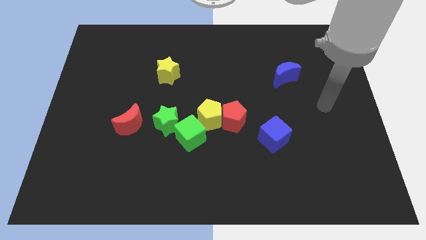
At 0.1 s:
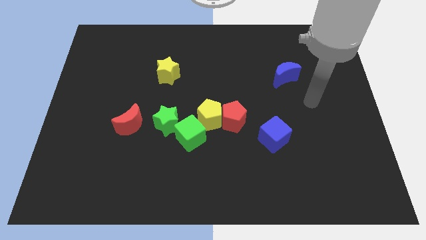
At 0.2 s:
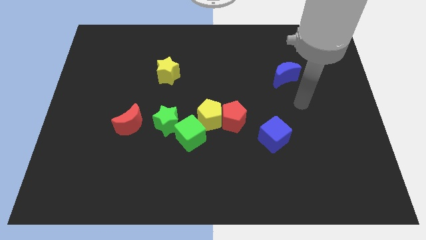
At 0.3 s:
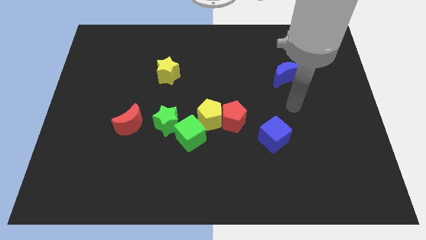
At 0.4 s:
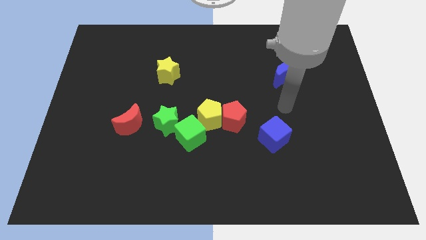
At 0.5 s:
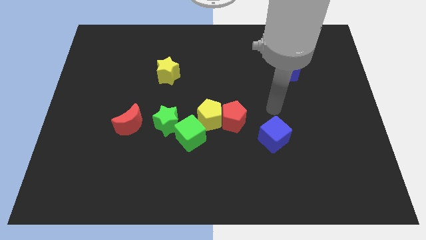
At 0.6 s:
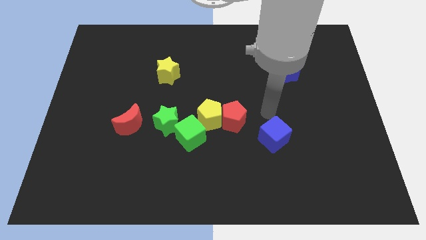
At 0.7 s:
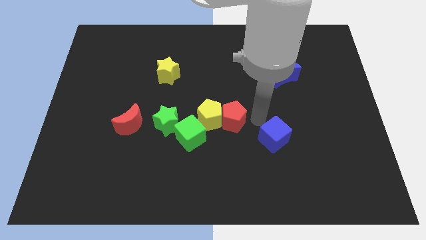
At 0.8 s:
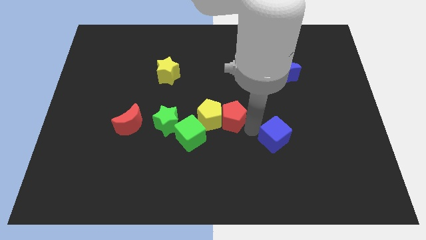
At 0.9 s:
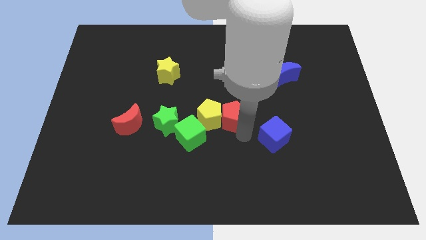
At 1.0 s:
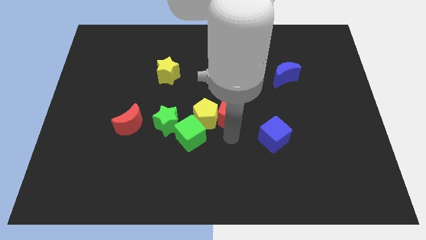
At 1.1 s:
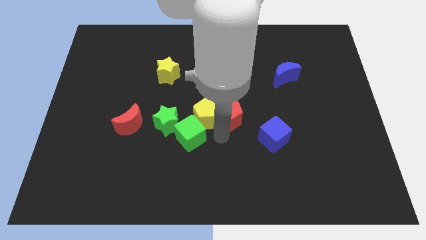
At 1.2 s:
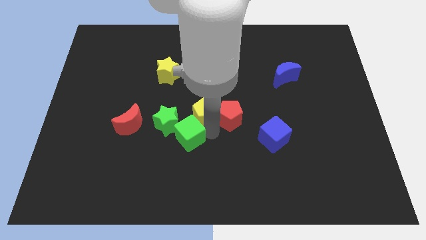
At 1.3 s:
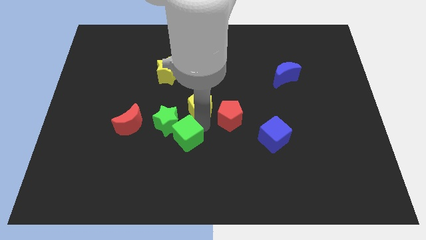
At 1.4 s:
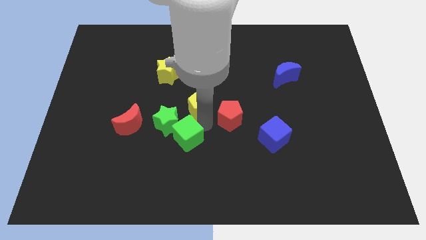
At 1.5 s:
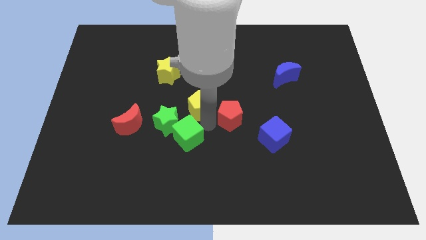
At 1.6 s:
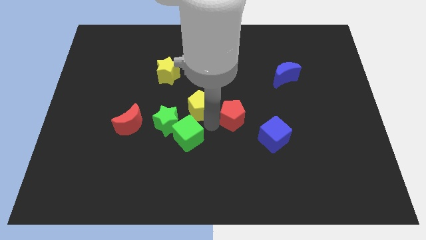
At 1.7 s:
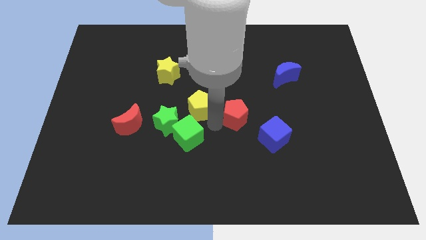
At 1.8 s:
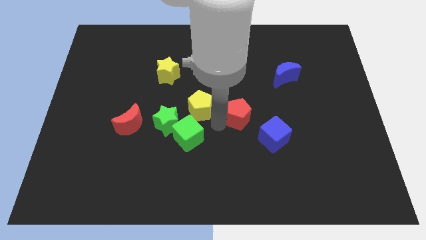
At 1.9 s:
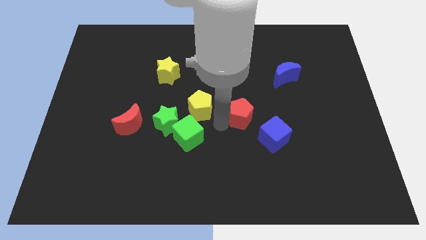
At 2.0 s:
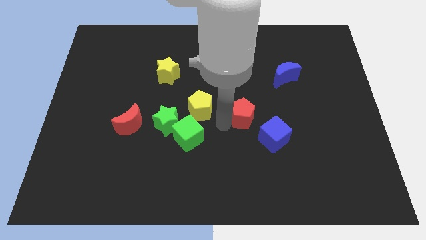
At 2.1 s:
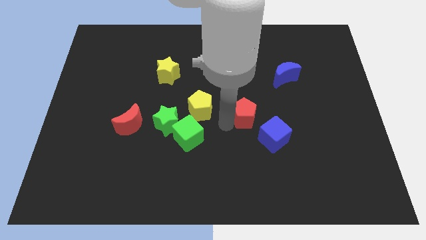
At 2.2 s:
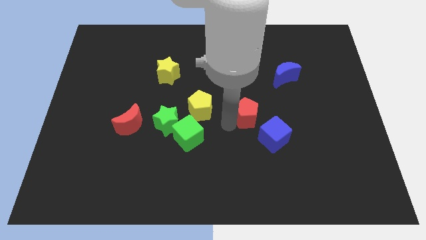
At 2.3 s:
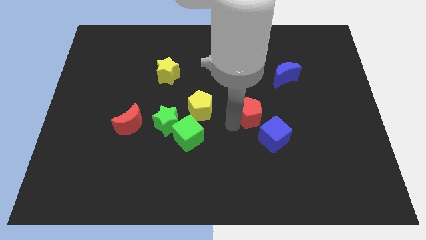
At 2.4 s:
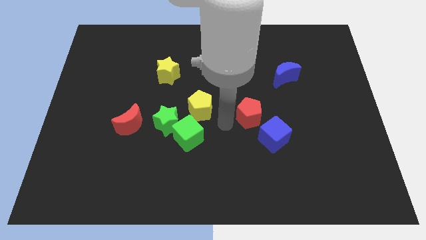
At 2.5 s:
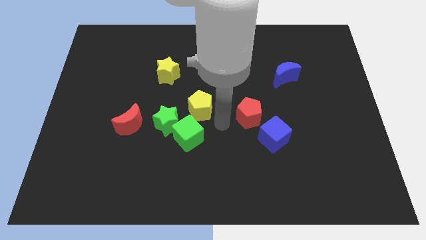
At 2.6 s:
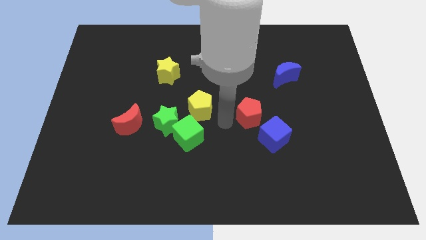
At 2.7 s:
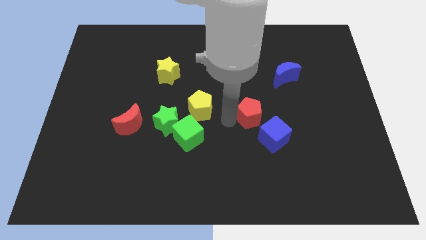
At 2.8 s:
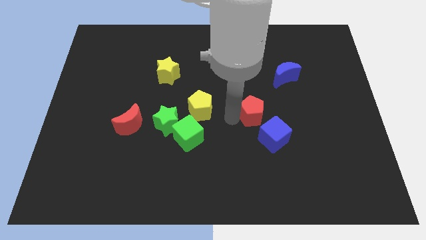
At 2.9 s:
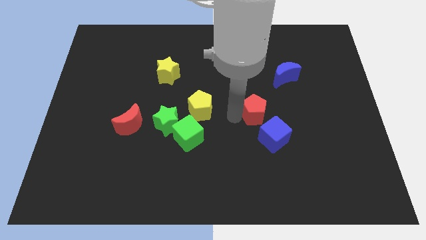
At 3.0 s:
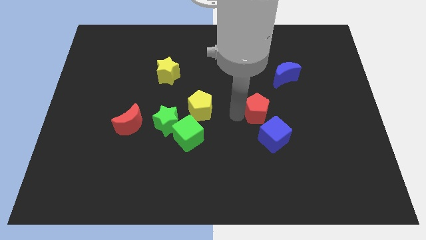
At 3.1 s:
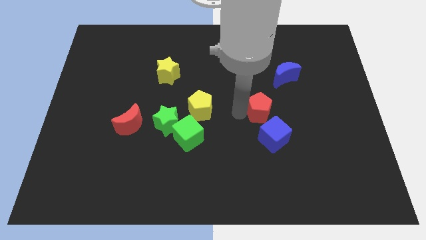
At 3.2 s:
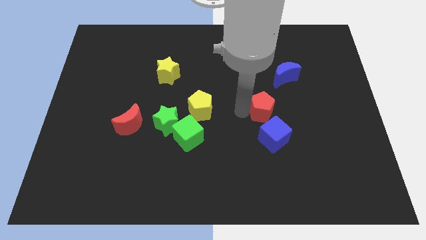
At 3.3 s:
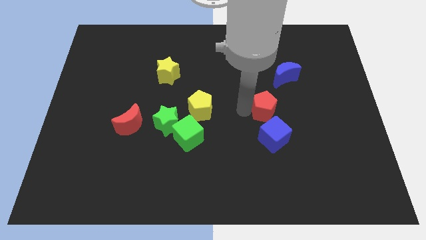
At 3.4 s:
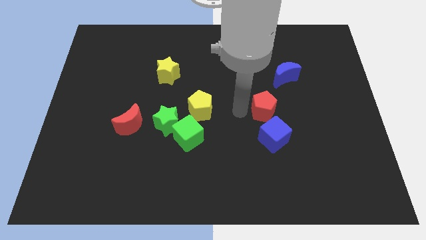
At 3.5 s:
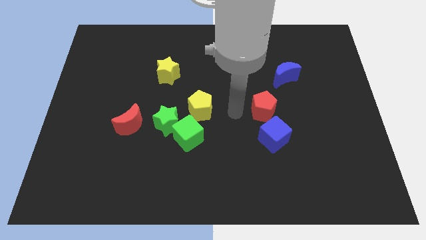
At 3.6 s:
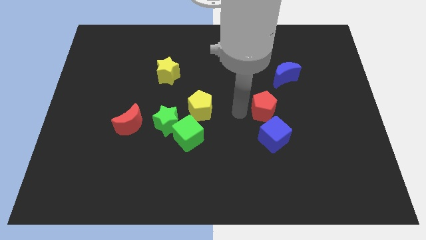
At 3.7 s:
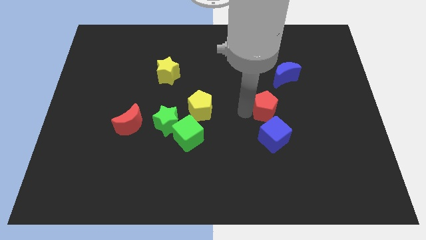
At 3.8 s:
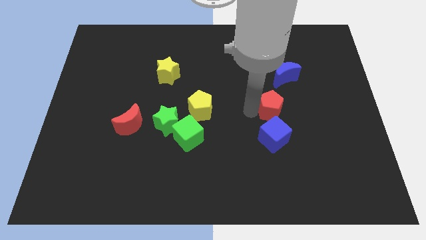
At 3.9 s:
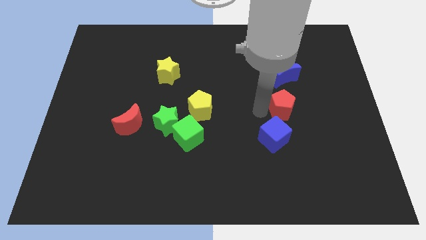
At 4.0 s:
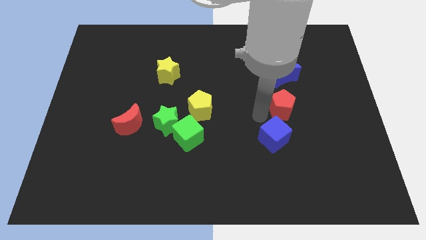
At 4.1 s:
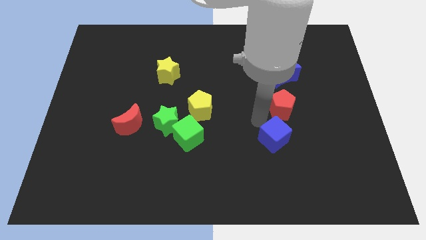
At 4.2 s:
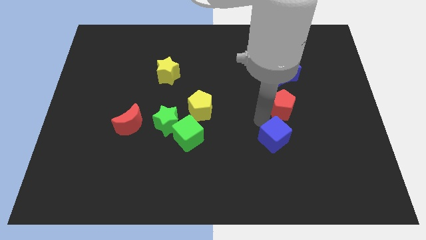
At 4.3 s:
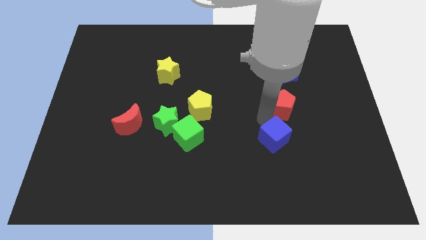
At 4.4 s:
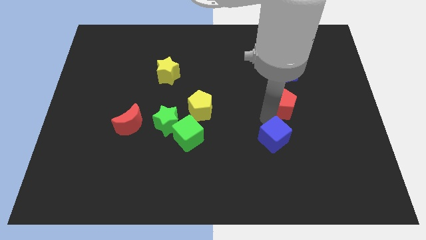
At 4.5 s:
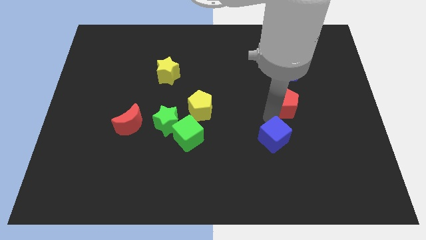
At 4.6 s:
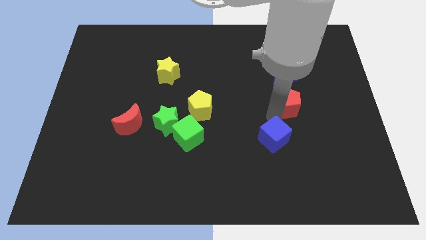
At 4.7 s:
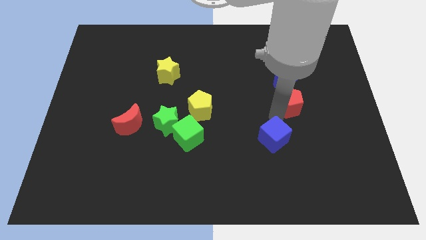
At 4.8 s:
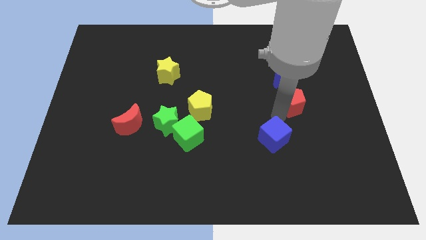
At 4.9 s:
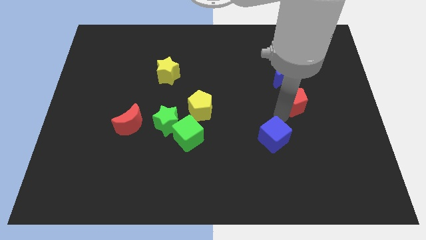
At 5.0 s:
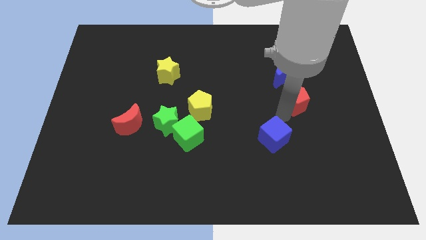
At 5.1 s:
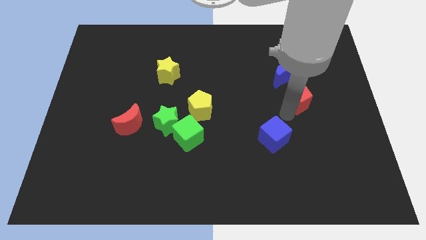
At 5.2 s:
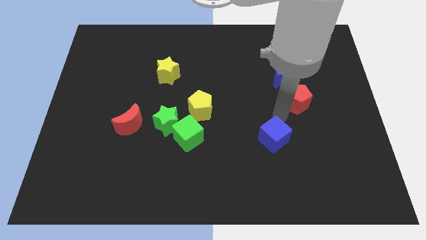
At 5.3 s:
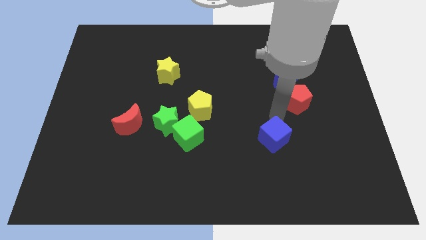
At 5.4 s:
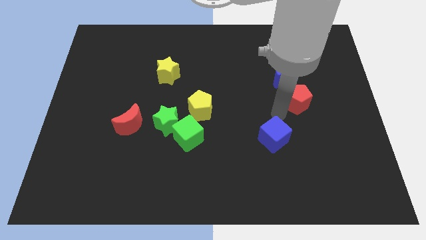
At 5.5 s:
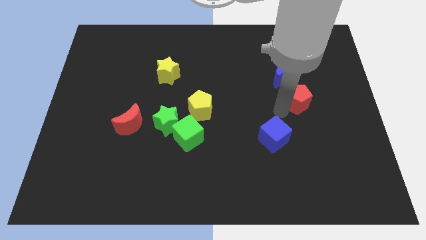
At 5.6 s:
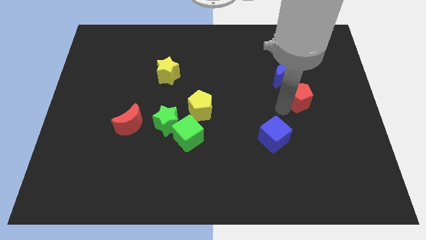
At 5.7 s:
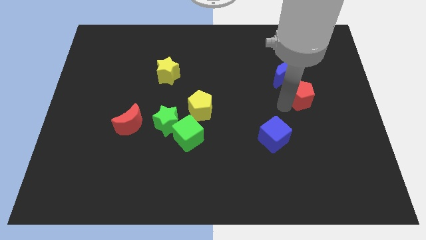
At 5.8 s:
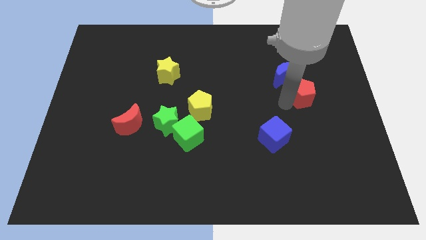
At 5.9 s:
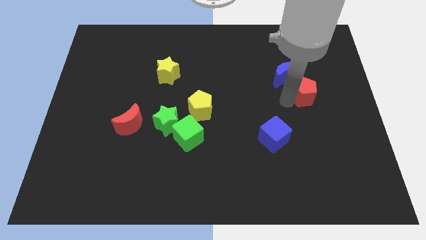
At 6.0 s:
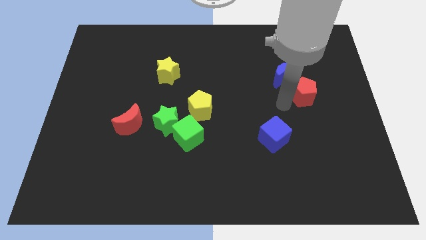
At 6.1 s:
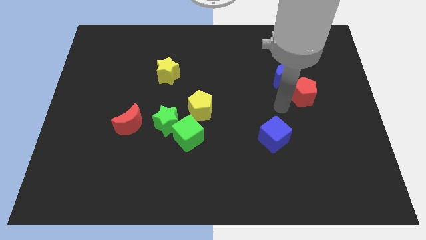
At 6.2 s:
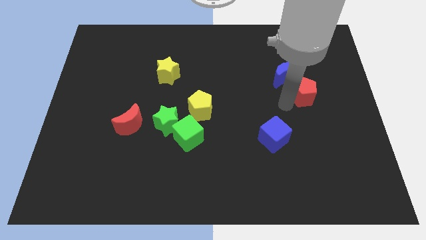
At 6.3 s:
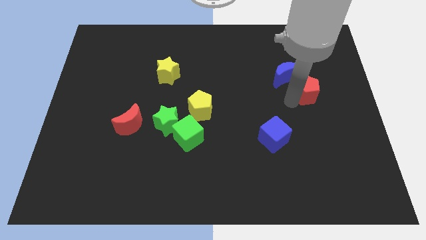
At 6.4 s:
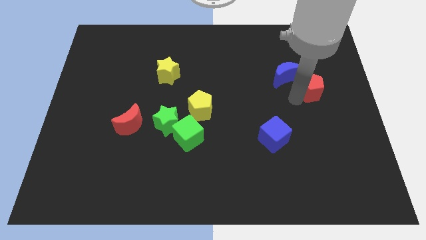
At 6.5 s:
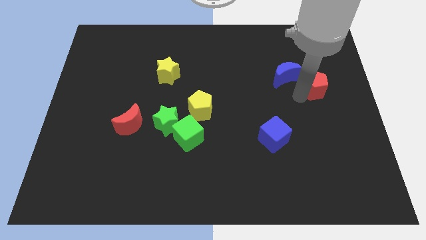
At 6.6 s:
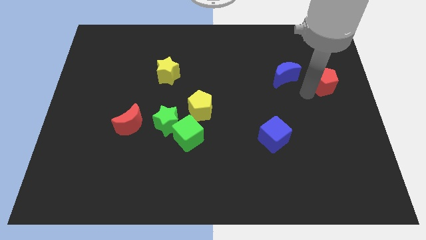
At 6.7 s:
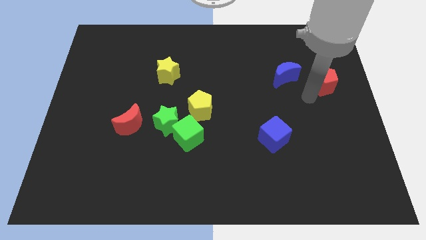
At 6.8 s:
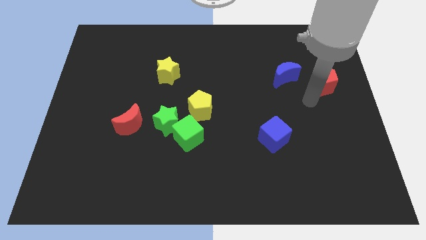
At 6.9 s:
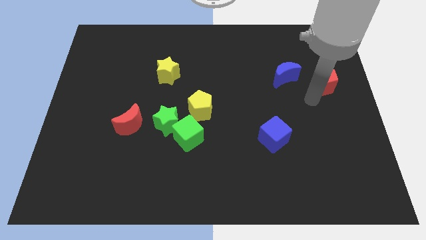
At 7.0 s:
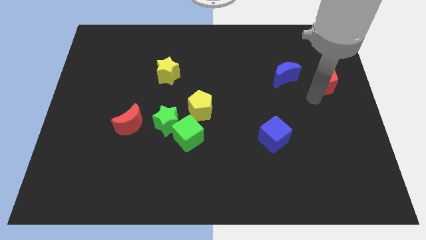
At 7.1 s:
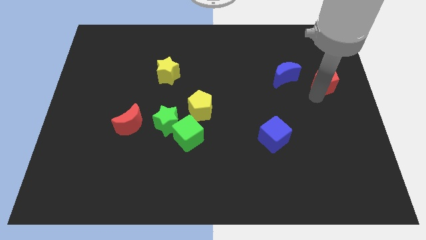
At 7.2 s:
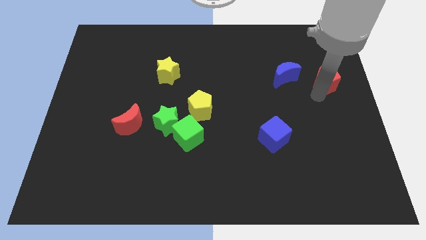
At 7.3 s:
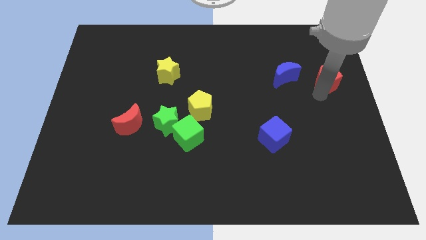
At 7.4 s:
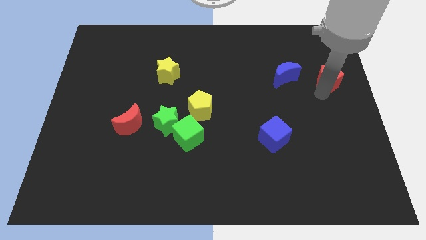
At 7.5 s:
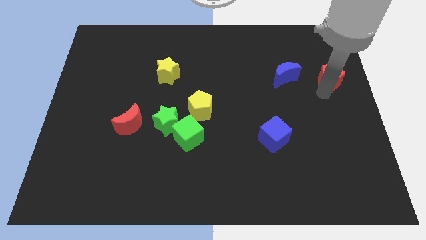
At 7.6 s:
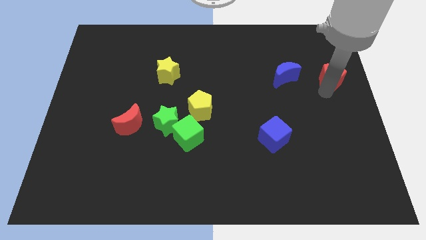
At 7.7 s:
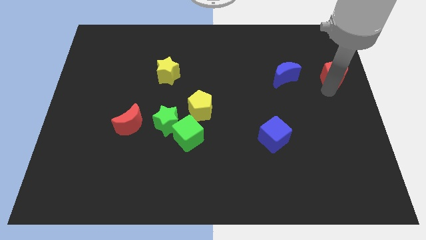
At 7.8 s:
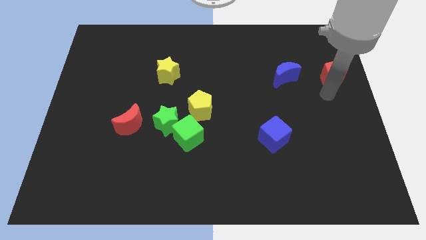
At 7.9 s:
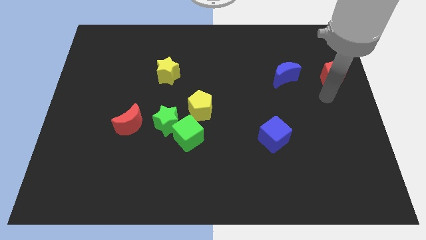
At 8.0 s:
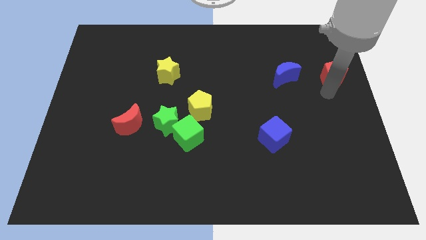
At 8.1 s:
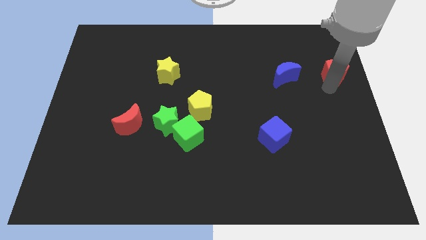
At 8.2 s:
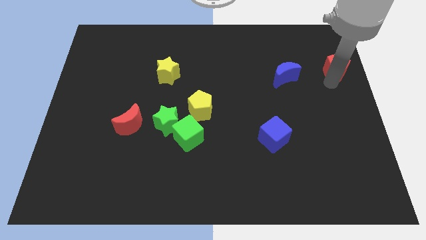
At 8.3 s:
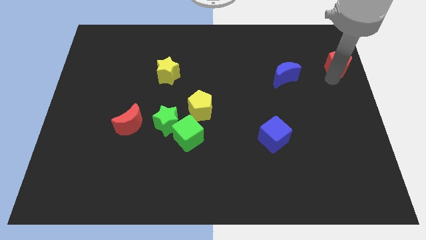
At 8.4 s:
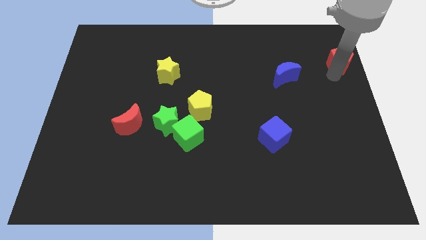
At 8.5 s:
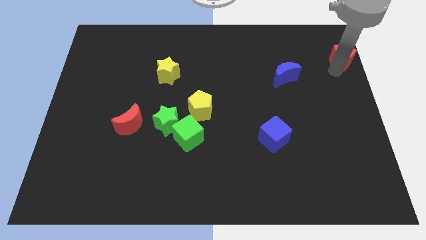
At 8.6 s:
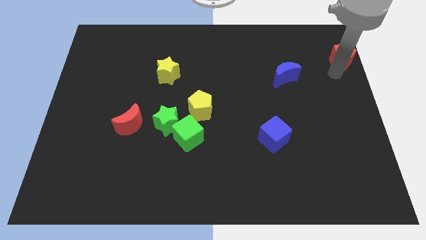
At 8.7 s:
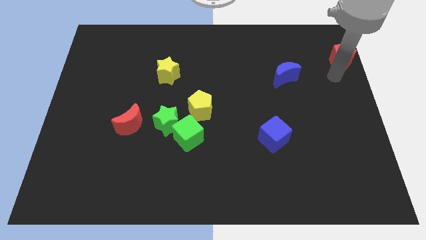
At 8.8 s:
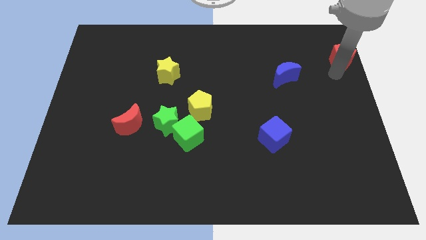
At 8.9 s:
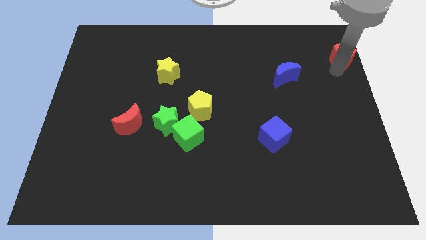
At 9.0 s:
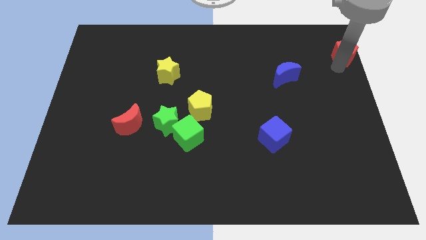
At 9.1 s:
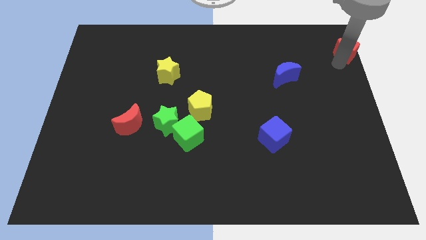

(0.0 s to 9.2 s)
push the red pentagon to the top right
